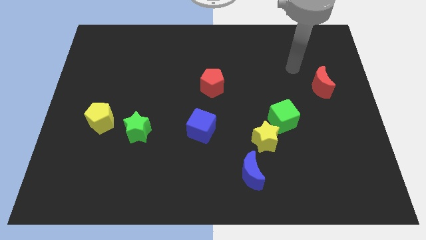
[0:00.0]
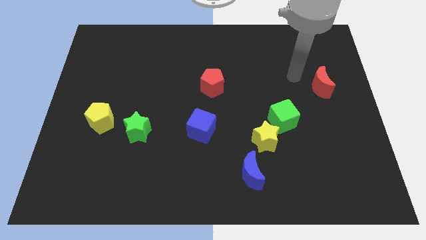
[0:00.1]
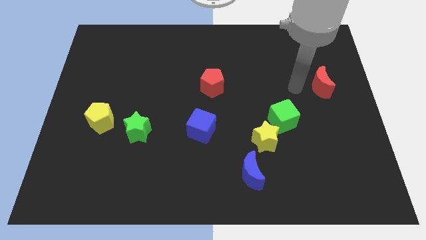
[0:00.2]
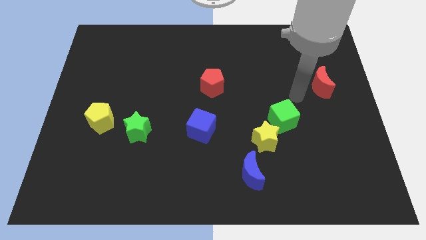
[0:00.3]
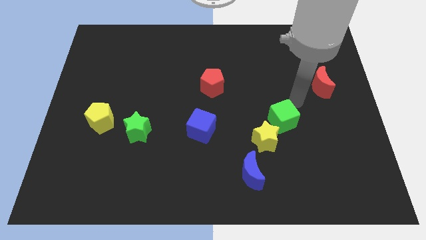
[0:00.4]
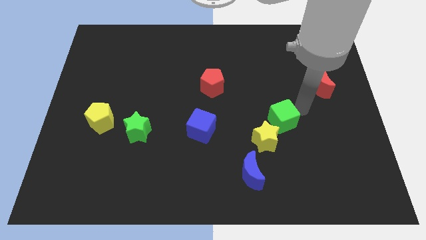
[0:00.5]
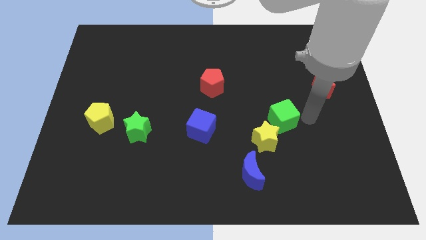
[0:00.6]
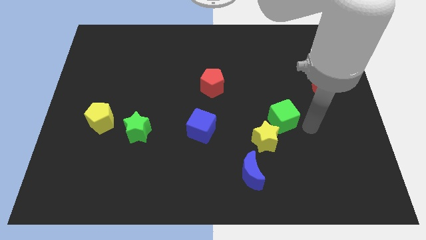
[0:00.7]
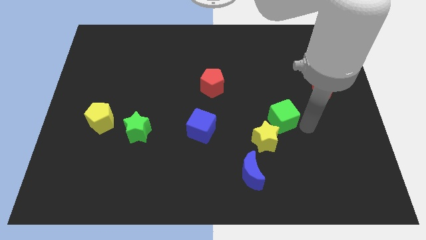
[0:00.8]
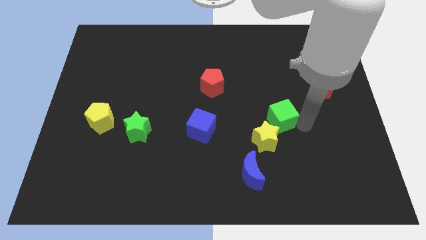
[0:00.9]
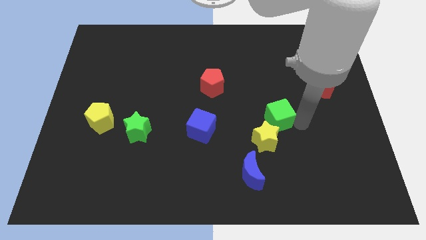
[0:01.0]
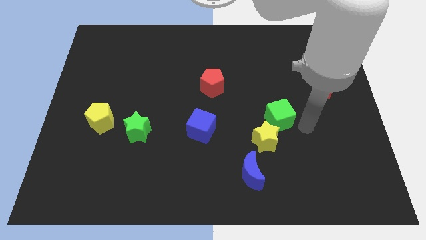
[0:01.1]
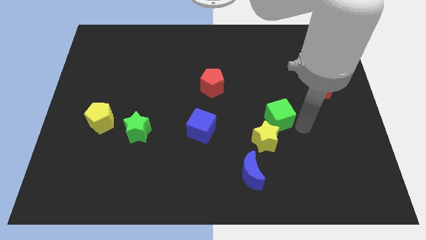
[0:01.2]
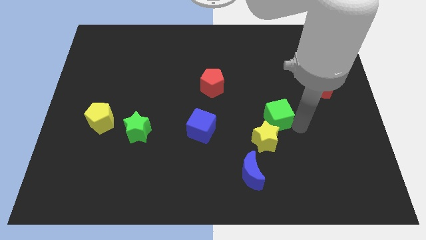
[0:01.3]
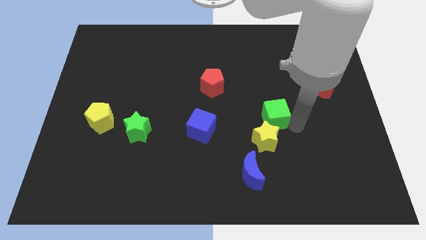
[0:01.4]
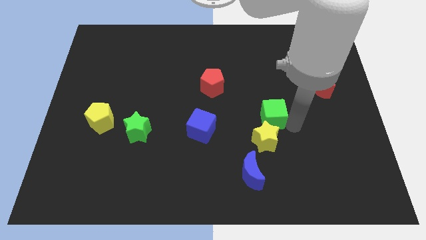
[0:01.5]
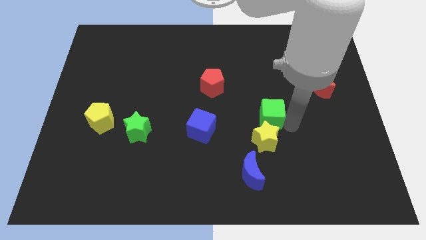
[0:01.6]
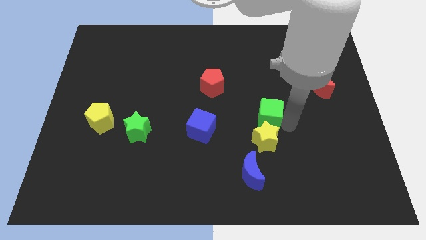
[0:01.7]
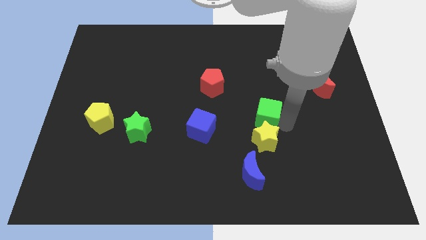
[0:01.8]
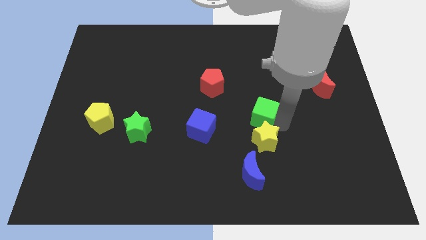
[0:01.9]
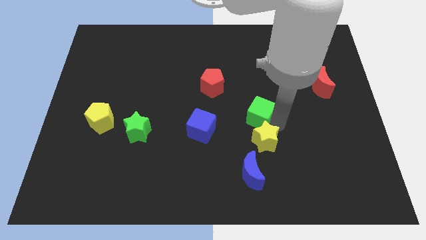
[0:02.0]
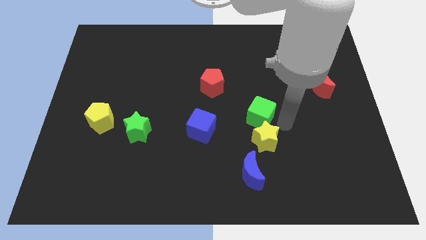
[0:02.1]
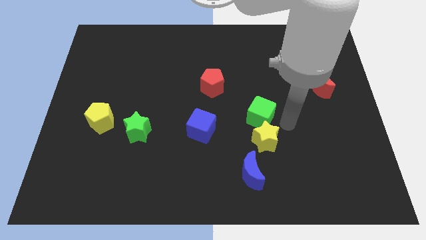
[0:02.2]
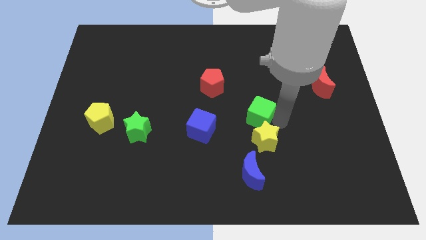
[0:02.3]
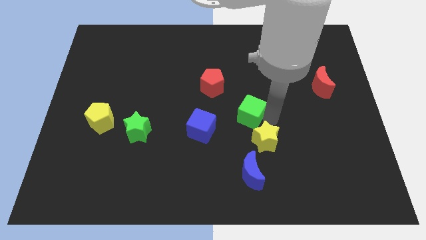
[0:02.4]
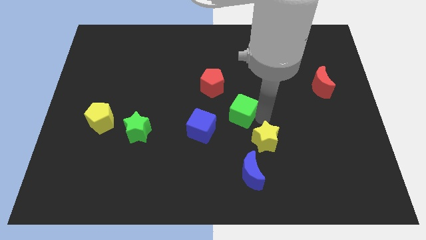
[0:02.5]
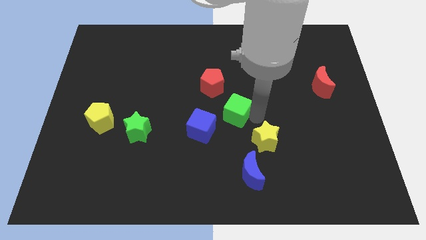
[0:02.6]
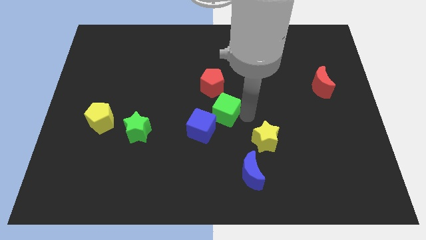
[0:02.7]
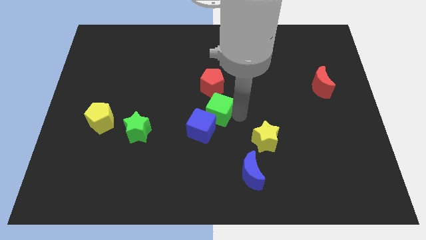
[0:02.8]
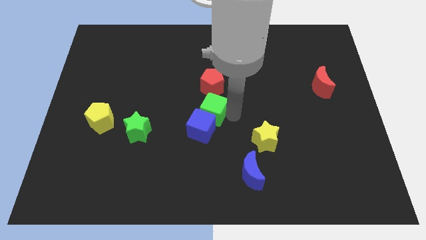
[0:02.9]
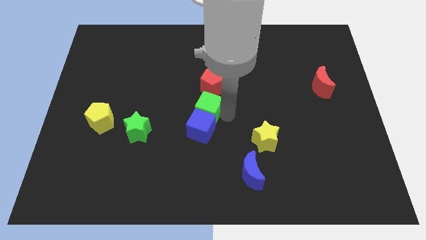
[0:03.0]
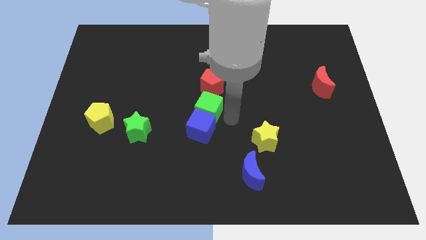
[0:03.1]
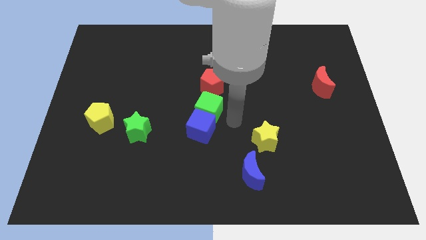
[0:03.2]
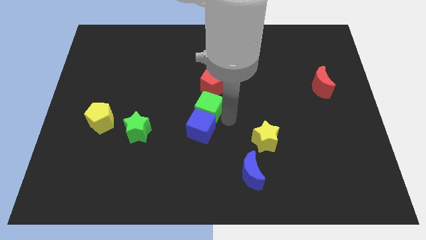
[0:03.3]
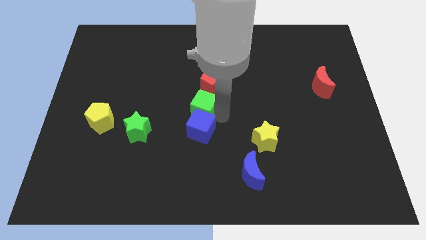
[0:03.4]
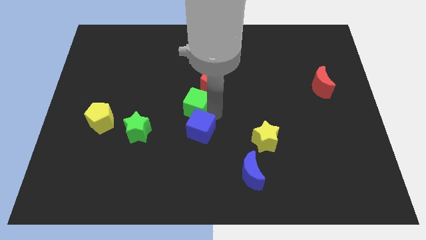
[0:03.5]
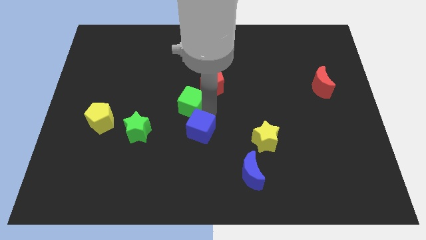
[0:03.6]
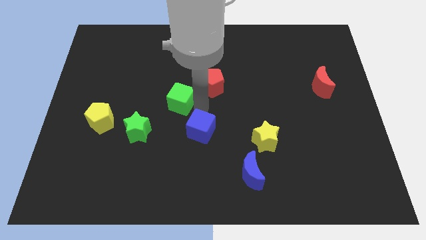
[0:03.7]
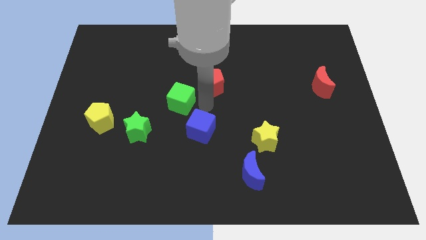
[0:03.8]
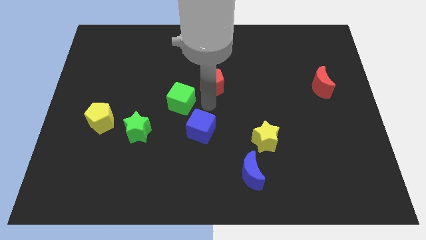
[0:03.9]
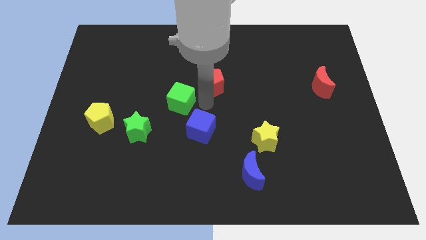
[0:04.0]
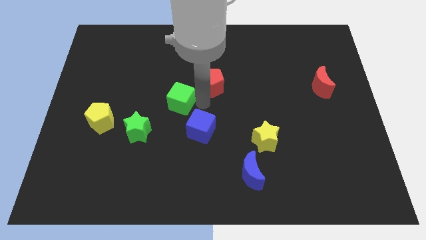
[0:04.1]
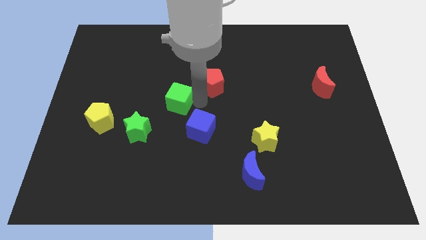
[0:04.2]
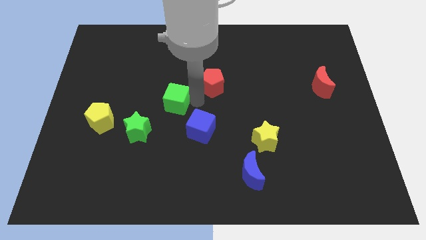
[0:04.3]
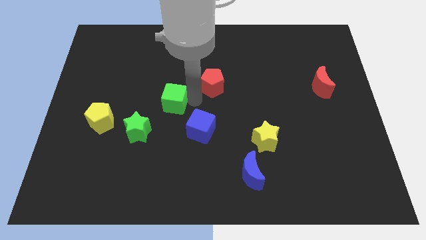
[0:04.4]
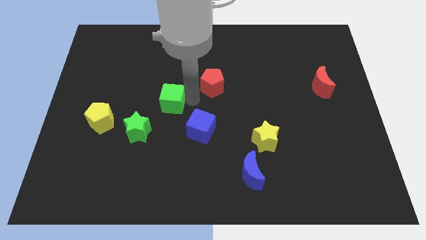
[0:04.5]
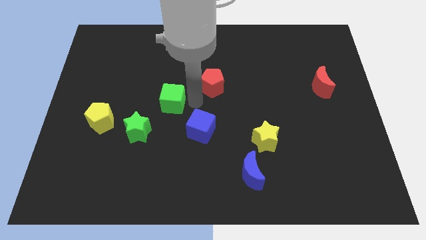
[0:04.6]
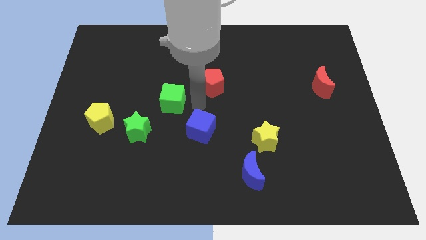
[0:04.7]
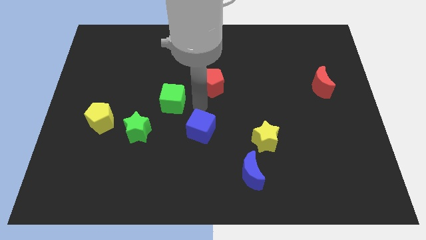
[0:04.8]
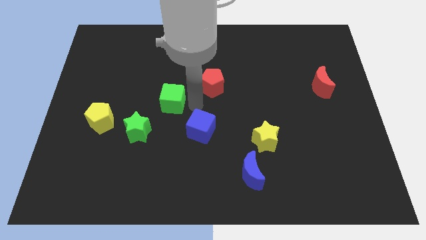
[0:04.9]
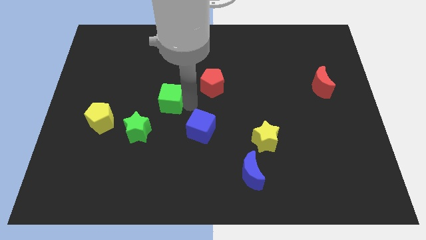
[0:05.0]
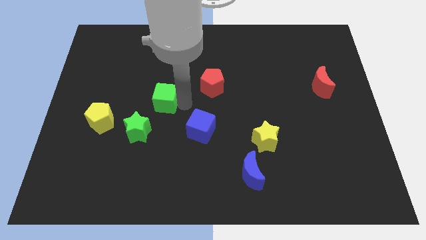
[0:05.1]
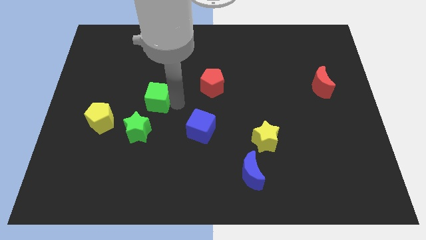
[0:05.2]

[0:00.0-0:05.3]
put the green cube to the top side of the green star

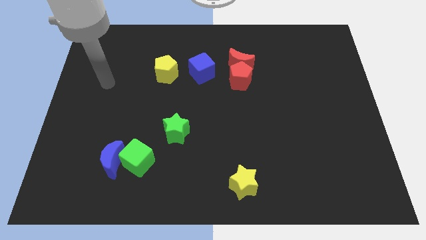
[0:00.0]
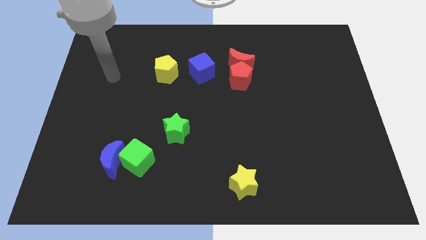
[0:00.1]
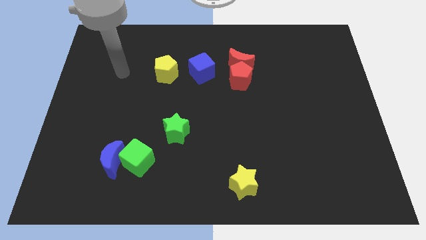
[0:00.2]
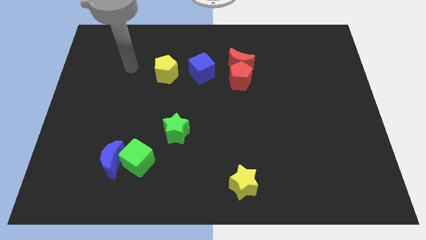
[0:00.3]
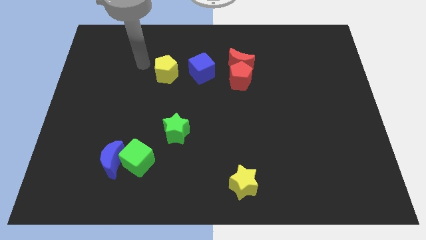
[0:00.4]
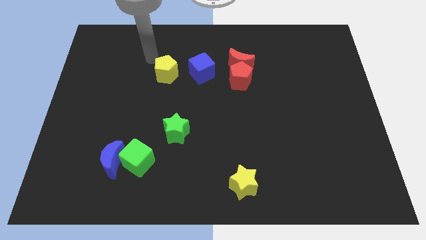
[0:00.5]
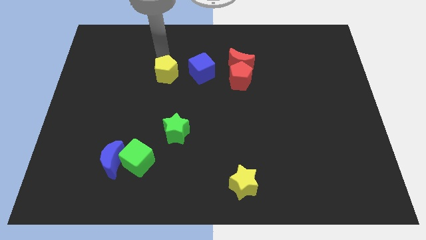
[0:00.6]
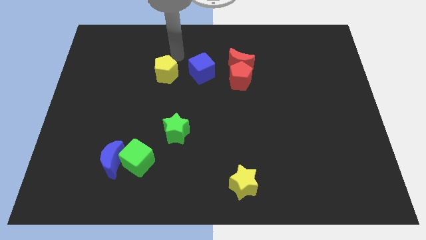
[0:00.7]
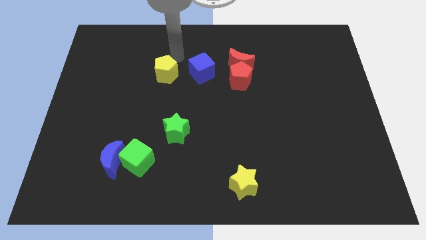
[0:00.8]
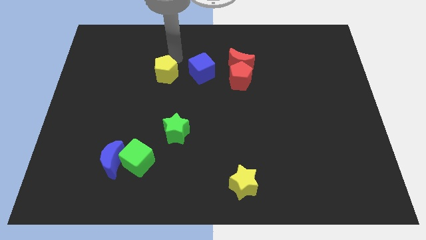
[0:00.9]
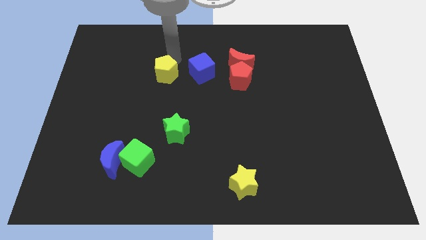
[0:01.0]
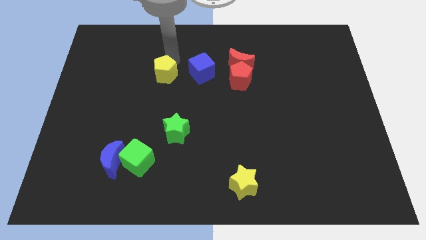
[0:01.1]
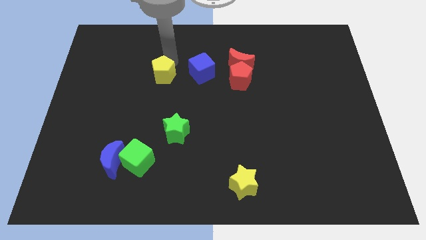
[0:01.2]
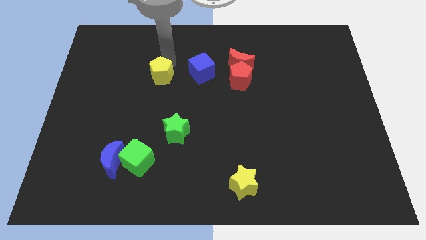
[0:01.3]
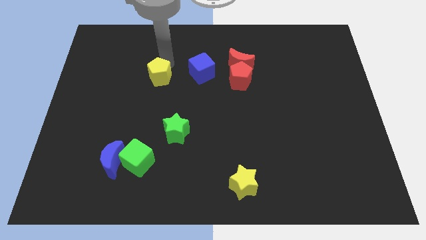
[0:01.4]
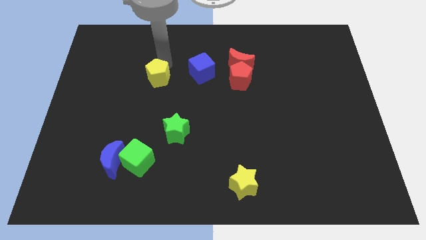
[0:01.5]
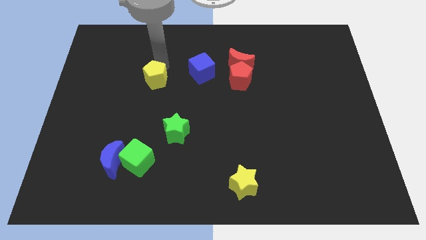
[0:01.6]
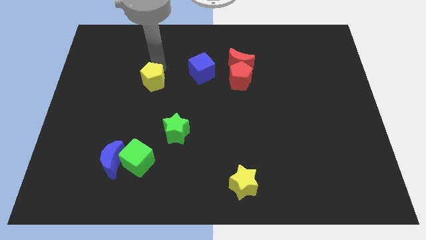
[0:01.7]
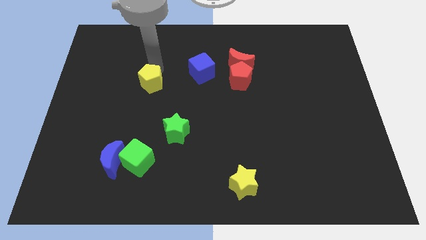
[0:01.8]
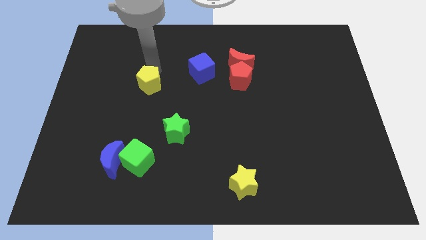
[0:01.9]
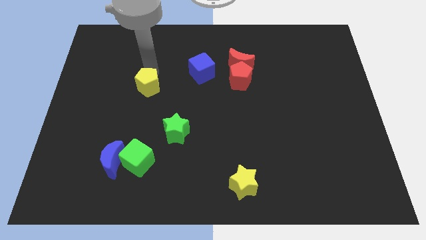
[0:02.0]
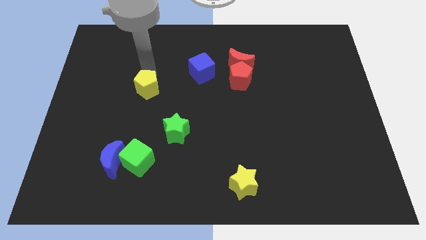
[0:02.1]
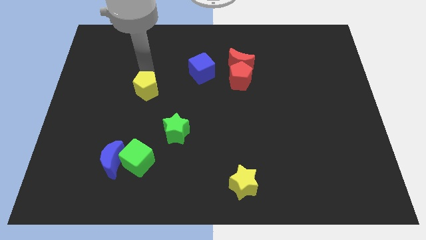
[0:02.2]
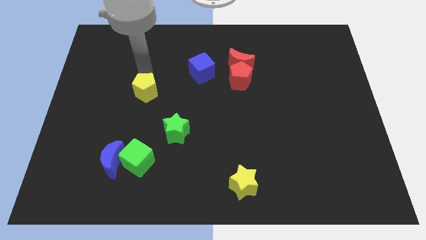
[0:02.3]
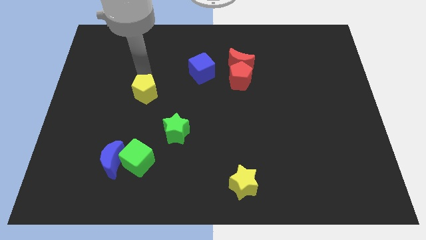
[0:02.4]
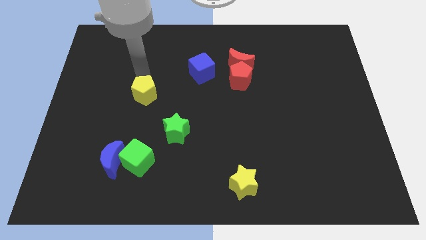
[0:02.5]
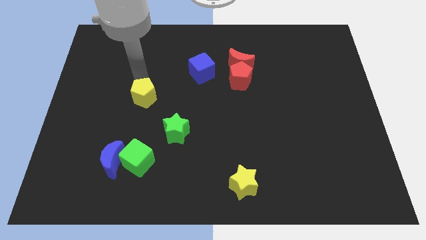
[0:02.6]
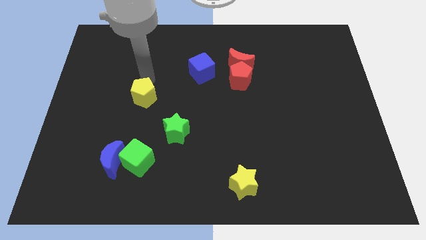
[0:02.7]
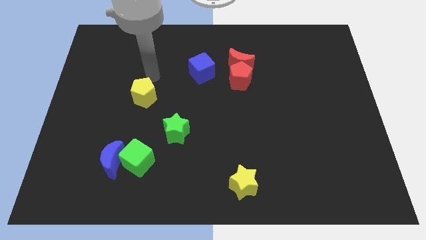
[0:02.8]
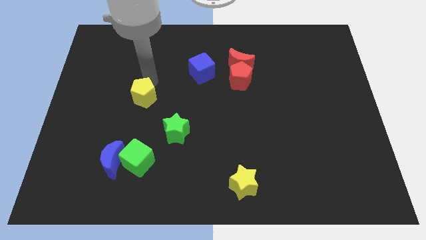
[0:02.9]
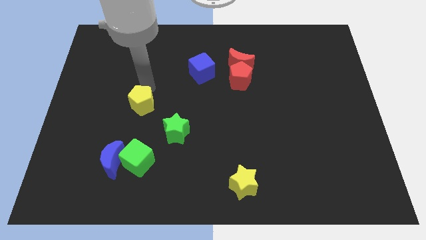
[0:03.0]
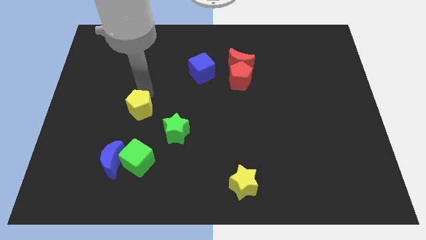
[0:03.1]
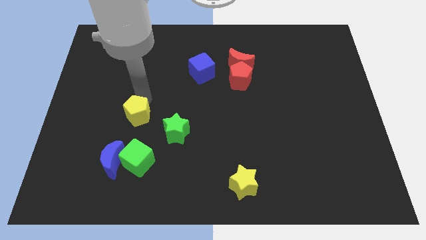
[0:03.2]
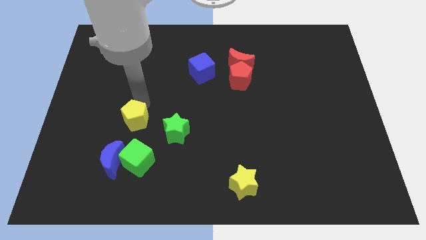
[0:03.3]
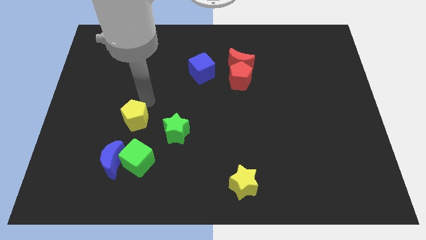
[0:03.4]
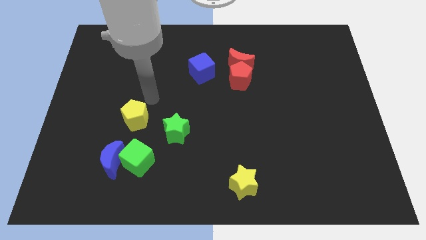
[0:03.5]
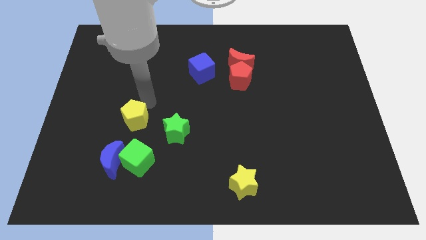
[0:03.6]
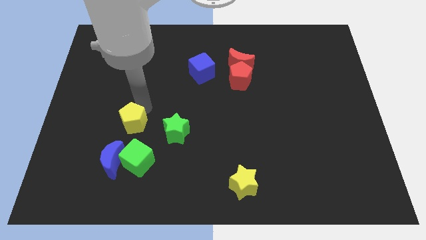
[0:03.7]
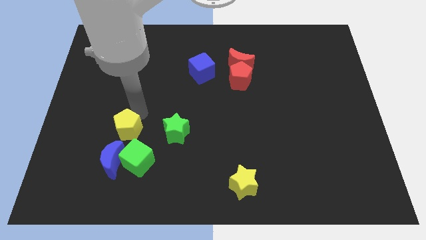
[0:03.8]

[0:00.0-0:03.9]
put the yellow pentagon diagonally up and to the left of the green cube
